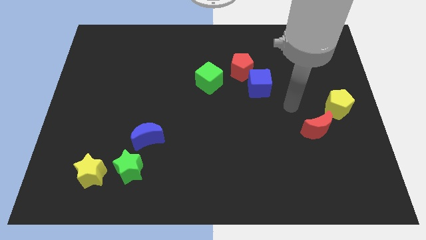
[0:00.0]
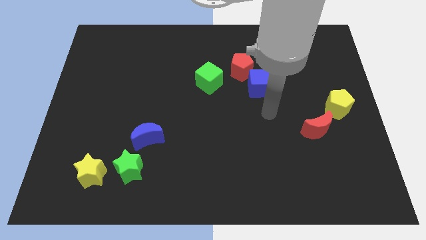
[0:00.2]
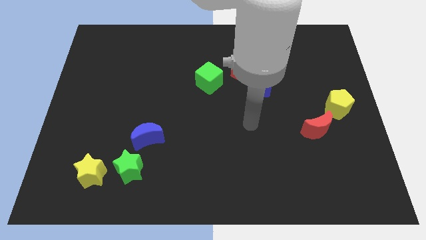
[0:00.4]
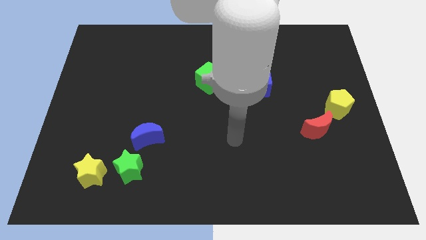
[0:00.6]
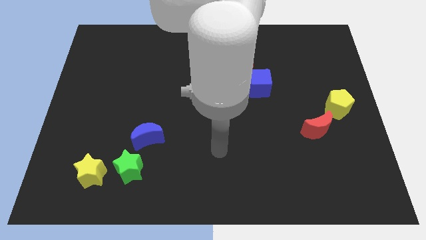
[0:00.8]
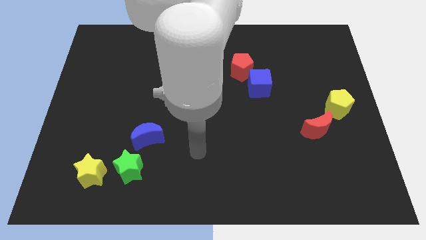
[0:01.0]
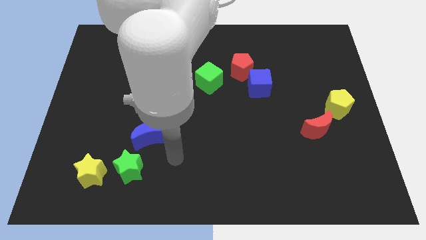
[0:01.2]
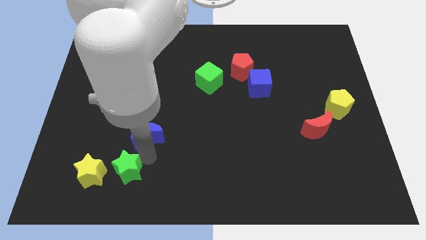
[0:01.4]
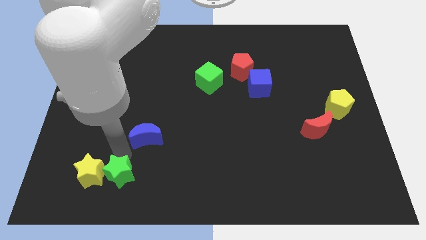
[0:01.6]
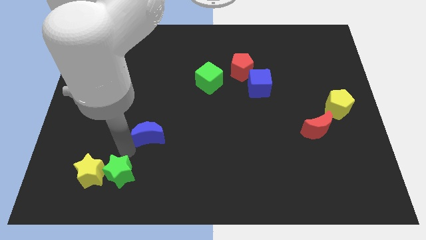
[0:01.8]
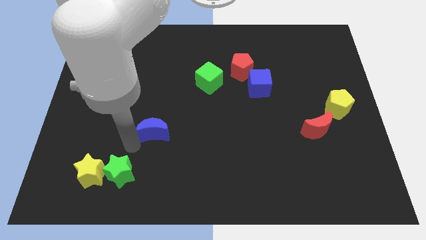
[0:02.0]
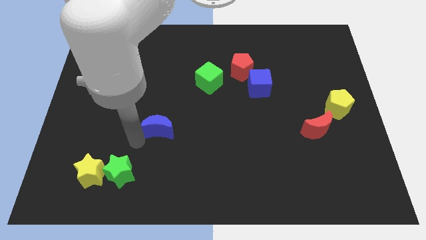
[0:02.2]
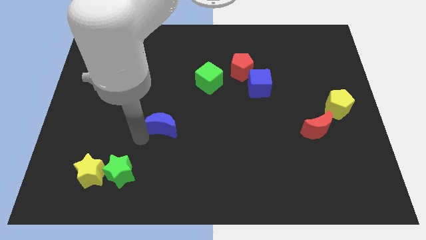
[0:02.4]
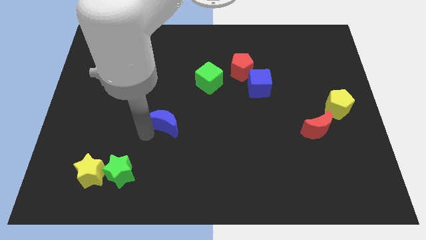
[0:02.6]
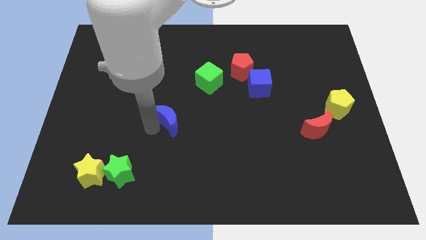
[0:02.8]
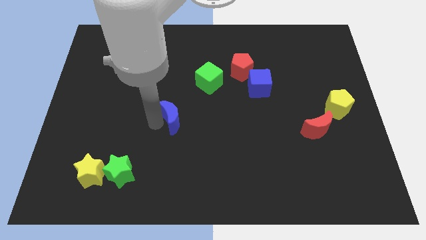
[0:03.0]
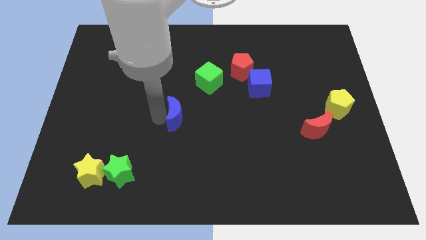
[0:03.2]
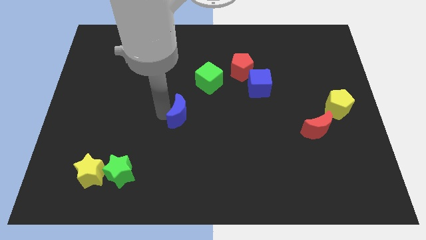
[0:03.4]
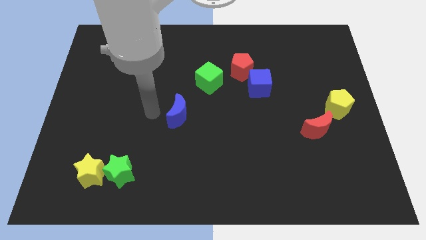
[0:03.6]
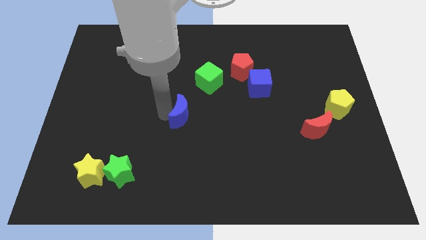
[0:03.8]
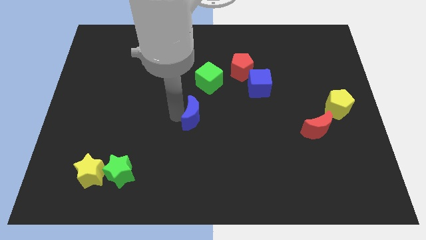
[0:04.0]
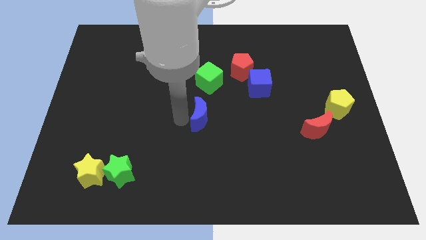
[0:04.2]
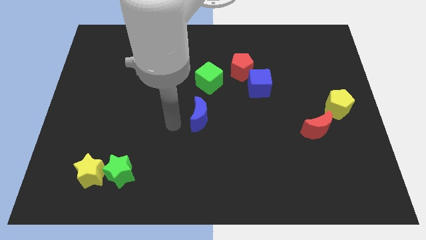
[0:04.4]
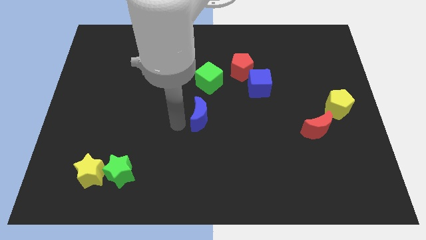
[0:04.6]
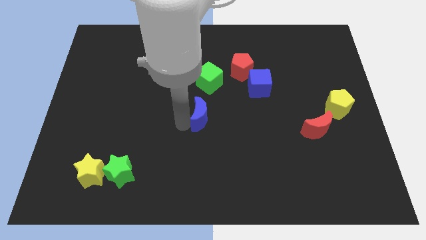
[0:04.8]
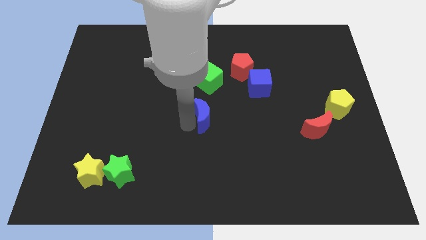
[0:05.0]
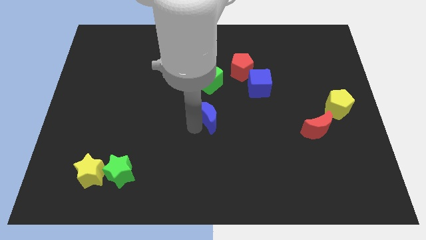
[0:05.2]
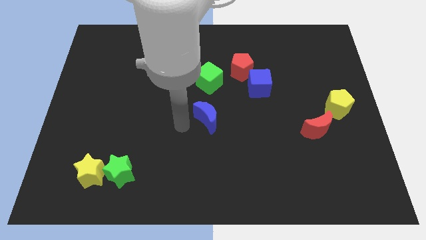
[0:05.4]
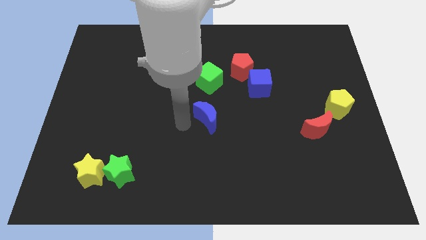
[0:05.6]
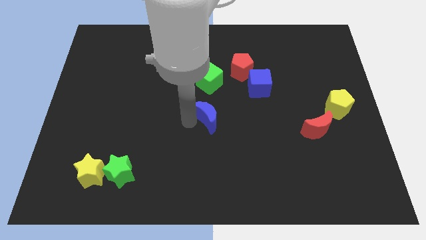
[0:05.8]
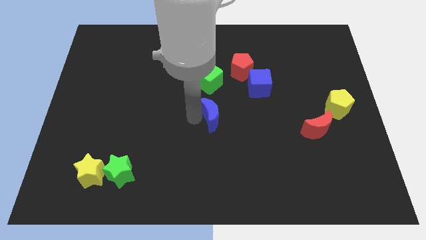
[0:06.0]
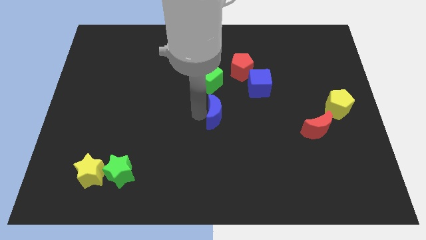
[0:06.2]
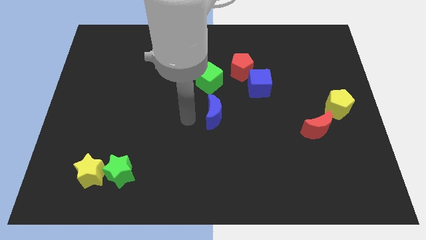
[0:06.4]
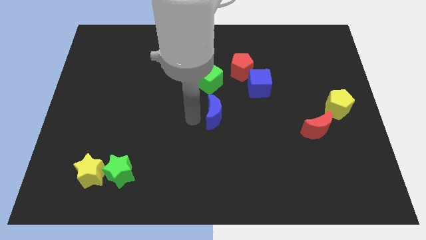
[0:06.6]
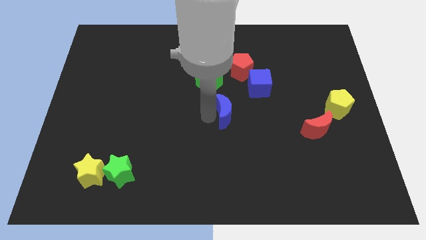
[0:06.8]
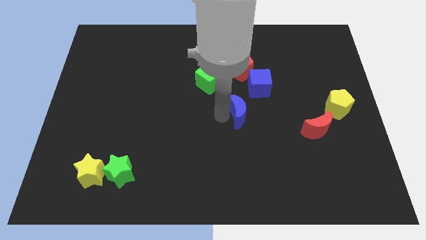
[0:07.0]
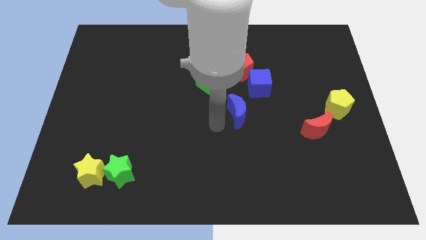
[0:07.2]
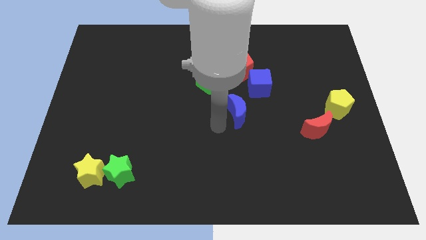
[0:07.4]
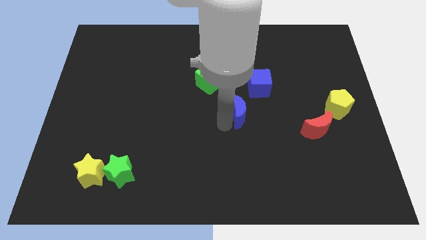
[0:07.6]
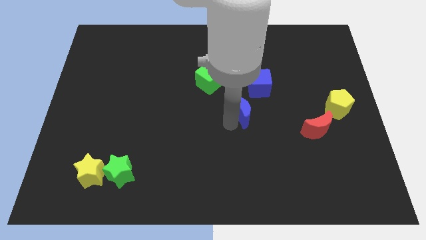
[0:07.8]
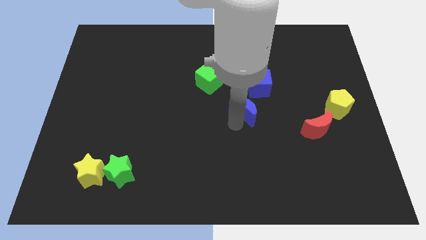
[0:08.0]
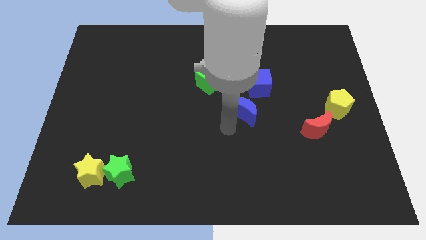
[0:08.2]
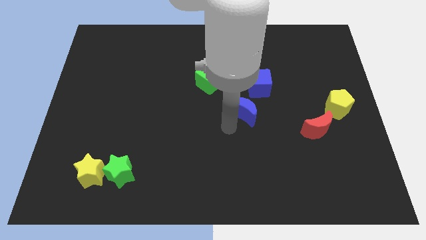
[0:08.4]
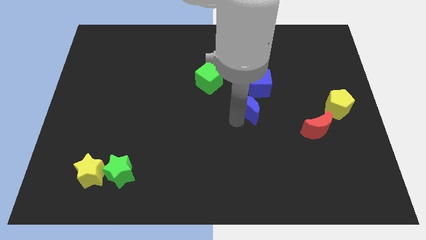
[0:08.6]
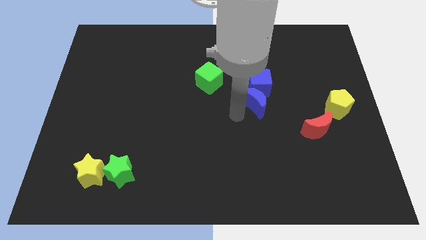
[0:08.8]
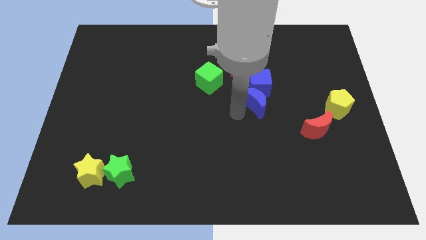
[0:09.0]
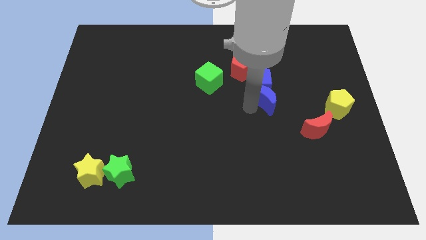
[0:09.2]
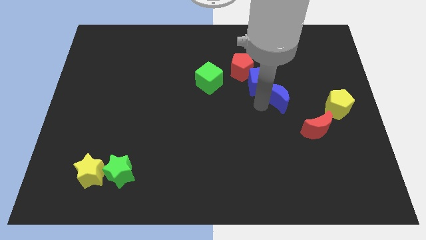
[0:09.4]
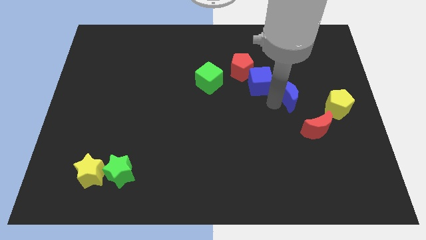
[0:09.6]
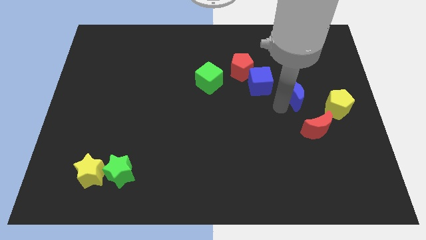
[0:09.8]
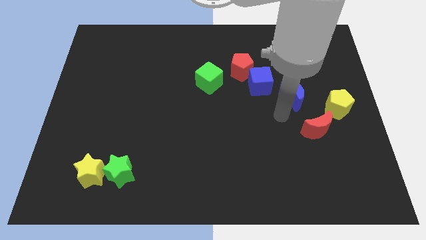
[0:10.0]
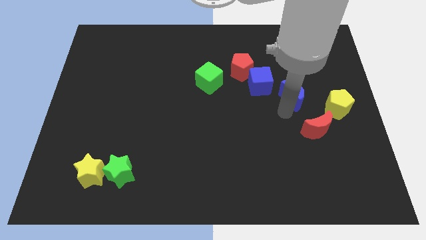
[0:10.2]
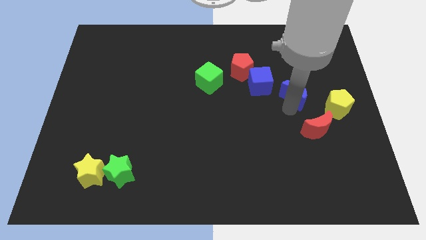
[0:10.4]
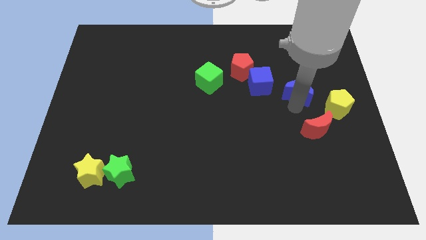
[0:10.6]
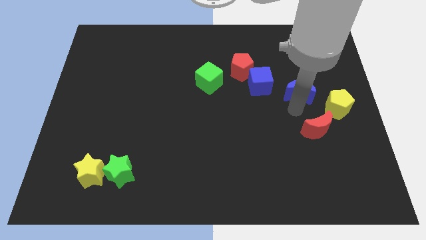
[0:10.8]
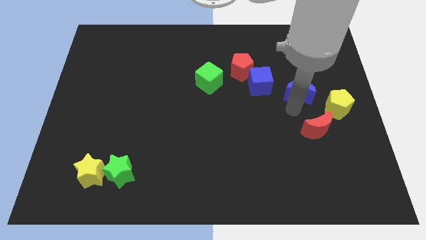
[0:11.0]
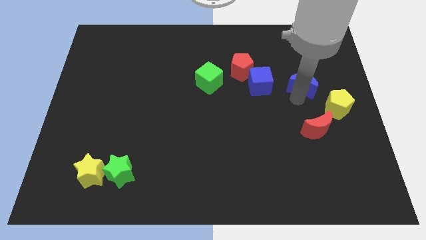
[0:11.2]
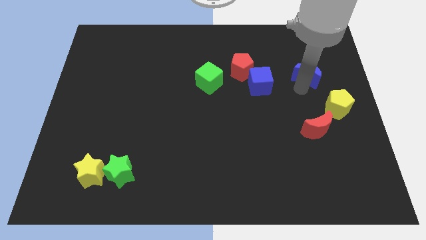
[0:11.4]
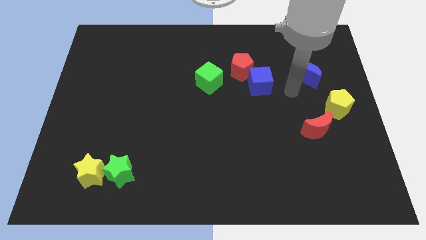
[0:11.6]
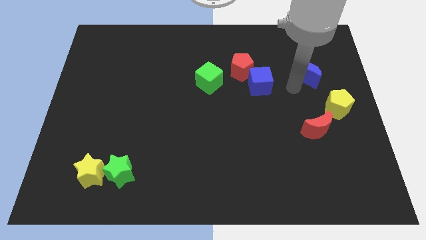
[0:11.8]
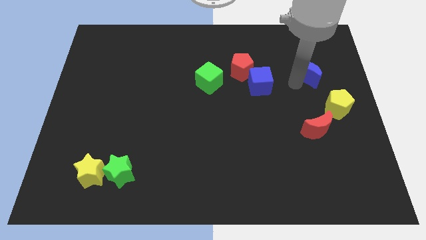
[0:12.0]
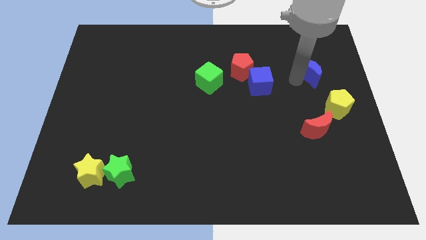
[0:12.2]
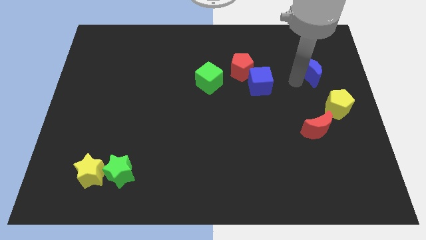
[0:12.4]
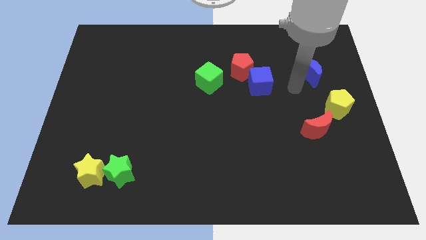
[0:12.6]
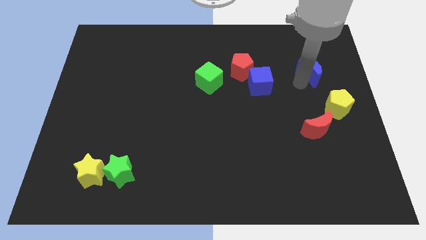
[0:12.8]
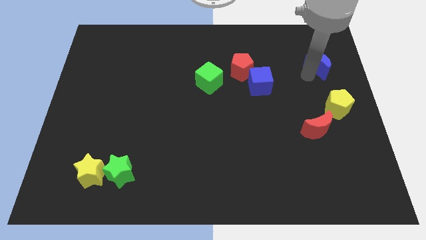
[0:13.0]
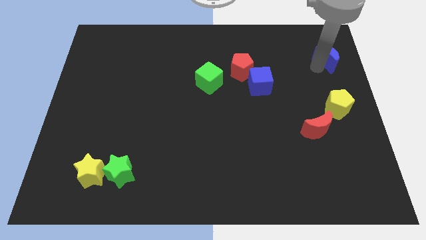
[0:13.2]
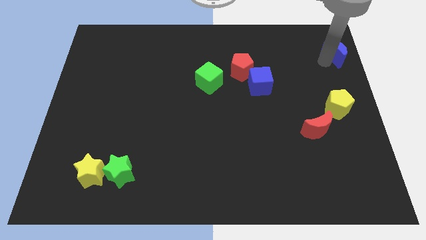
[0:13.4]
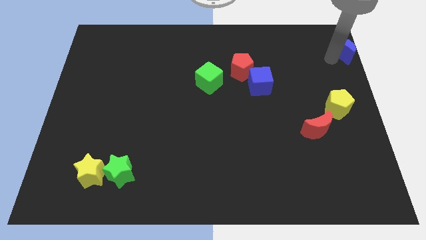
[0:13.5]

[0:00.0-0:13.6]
push the blue moon to the top right of the board

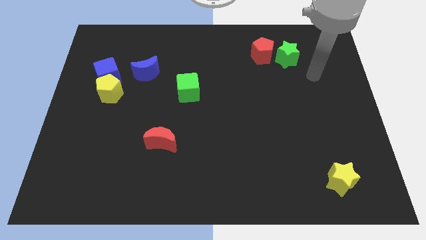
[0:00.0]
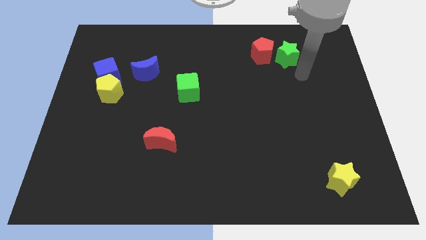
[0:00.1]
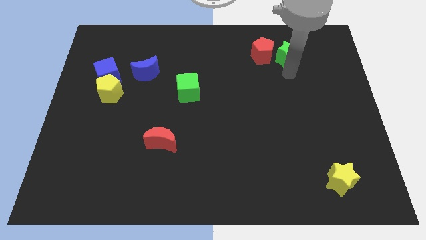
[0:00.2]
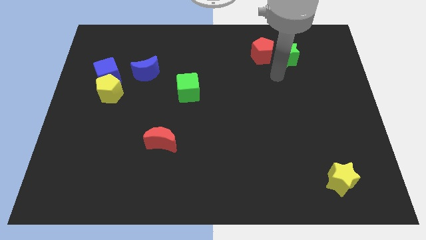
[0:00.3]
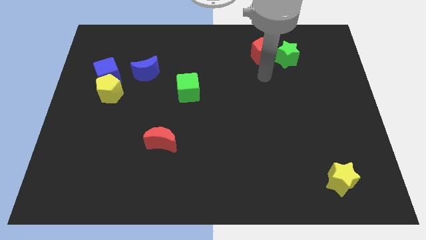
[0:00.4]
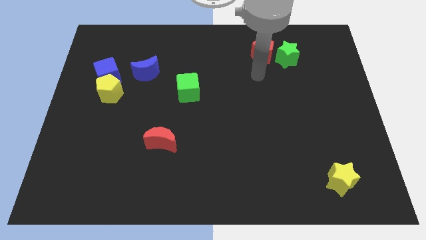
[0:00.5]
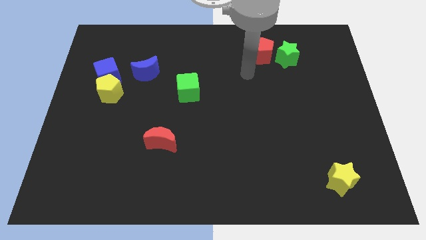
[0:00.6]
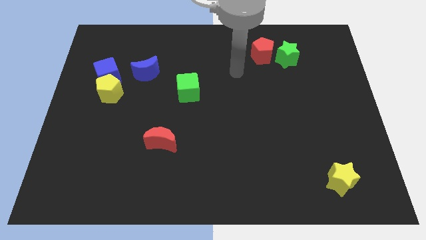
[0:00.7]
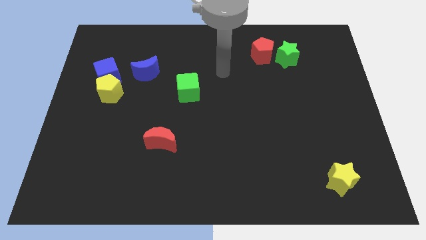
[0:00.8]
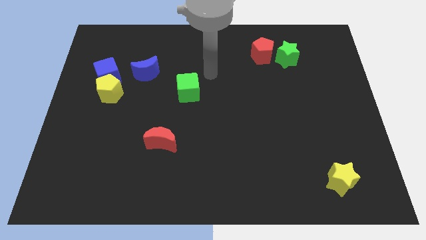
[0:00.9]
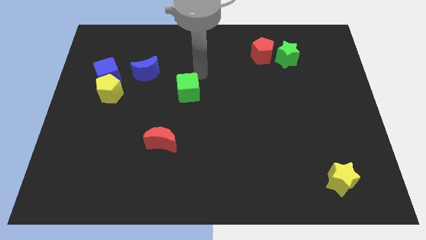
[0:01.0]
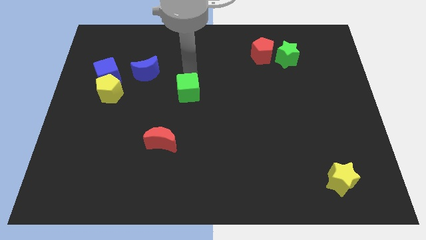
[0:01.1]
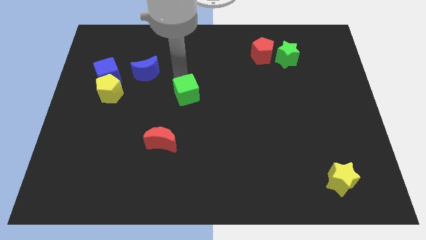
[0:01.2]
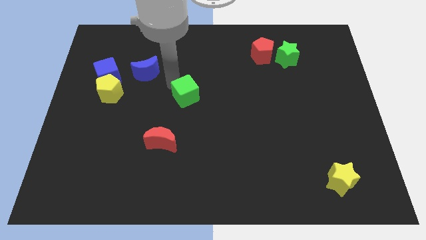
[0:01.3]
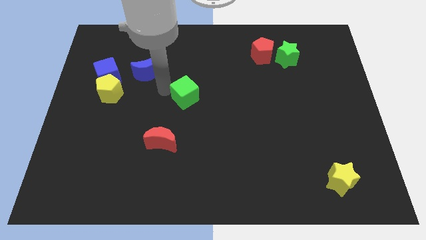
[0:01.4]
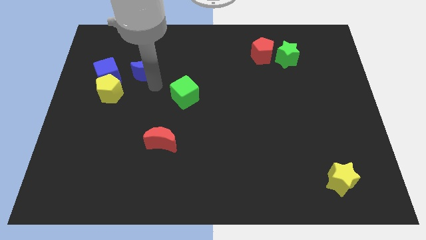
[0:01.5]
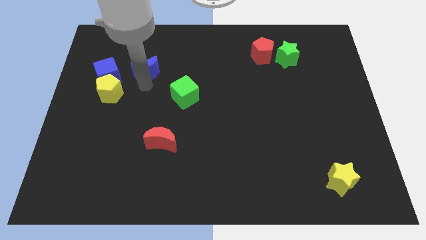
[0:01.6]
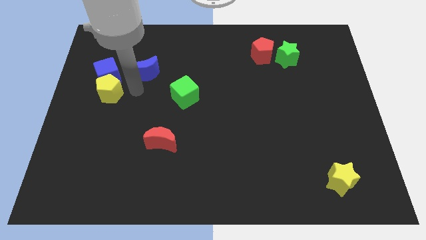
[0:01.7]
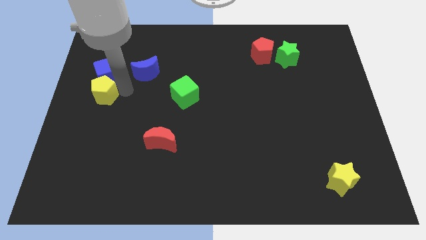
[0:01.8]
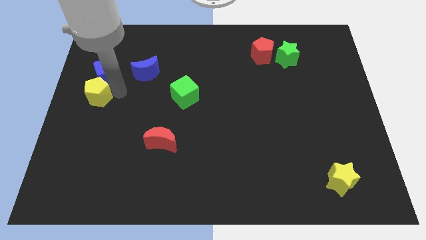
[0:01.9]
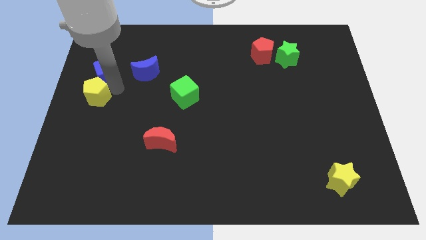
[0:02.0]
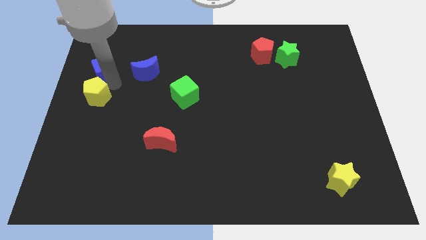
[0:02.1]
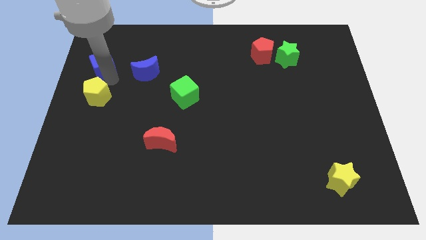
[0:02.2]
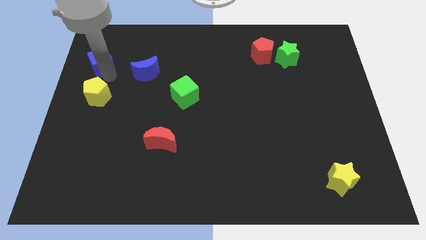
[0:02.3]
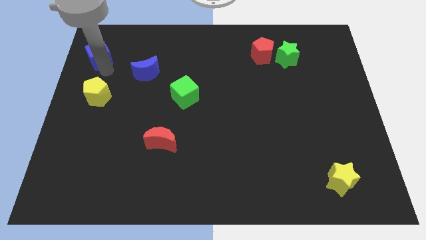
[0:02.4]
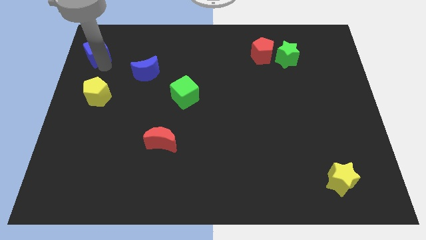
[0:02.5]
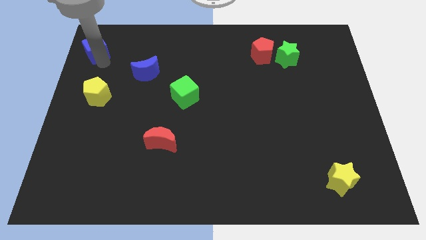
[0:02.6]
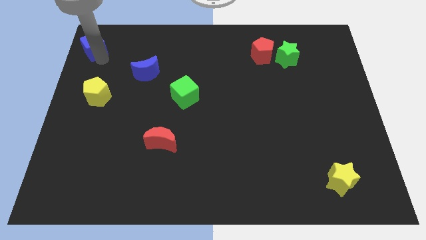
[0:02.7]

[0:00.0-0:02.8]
move the blue cube to the top left of the board
